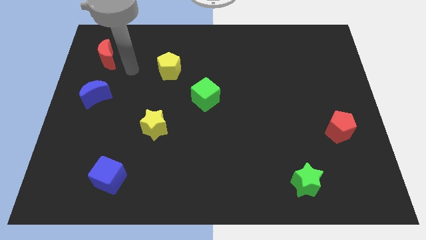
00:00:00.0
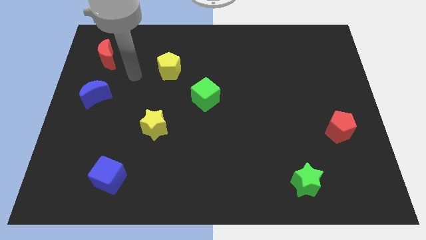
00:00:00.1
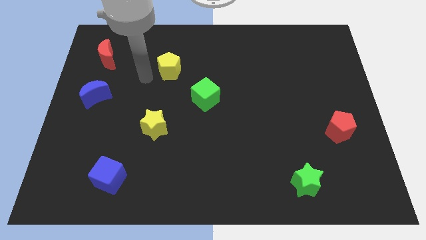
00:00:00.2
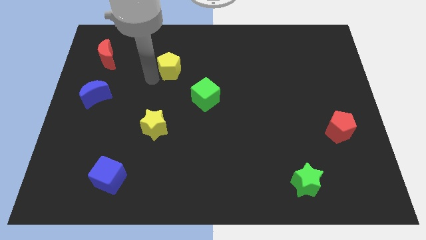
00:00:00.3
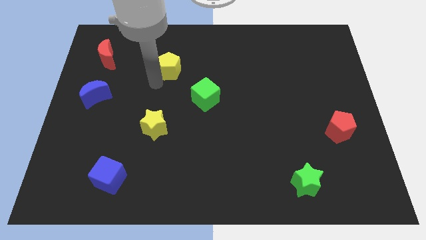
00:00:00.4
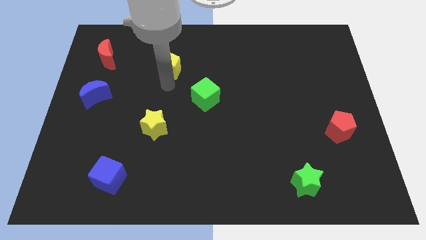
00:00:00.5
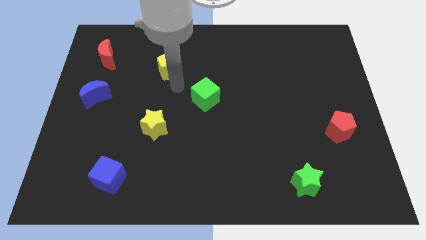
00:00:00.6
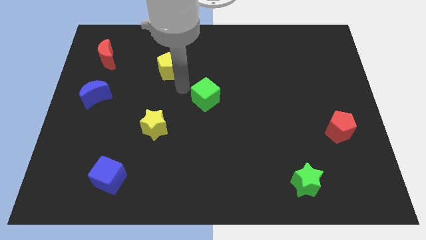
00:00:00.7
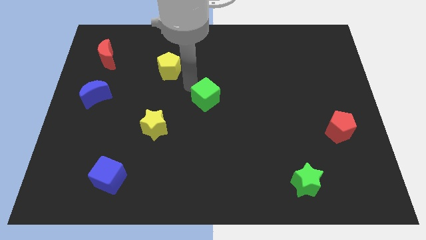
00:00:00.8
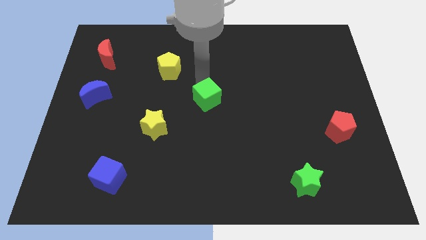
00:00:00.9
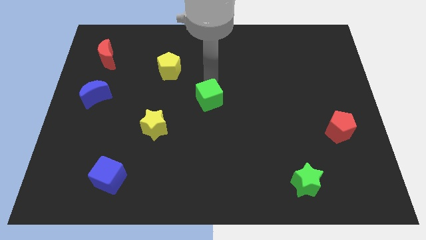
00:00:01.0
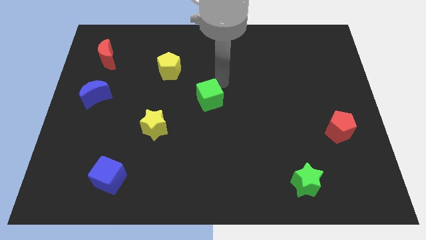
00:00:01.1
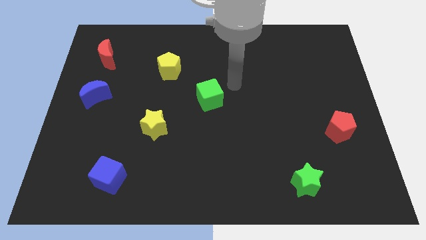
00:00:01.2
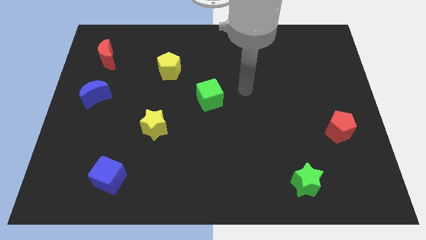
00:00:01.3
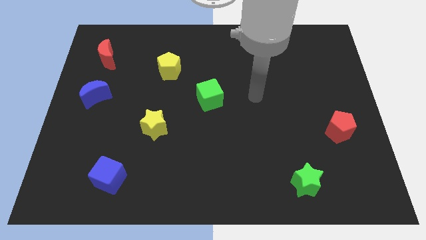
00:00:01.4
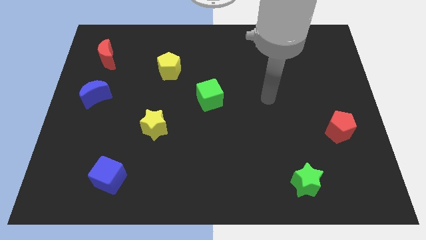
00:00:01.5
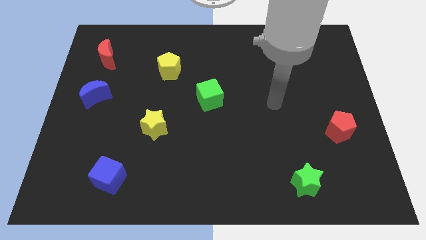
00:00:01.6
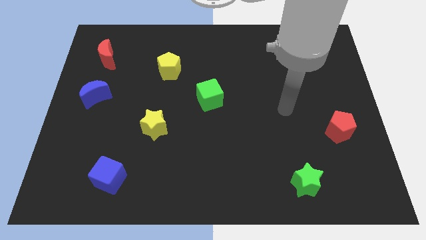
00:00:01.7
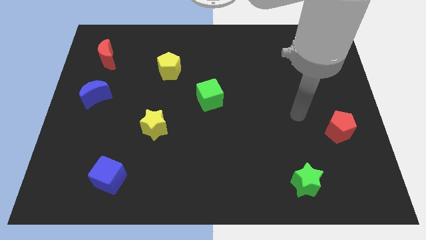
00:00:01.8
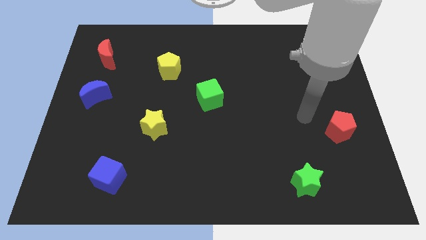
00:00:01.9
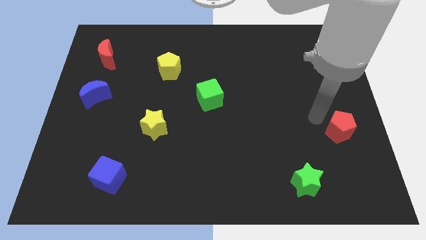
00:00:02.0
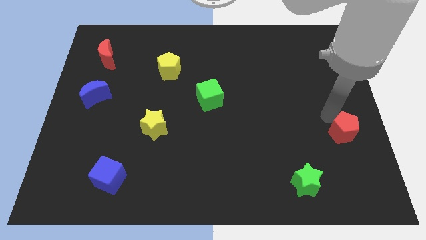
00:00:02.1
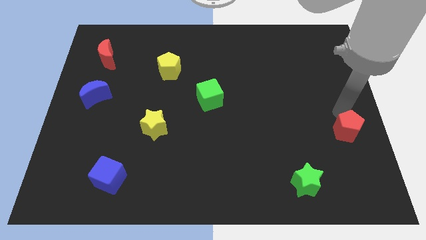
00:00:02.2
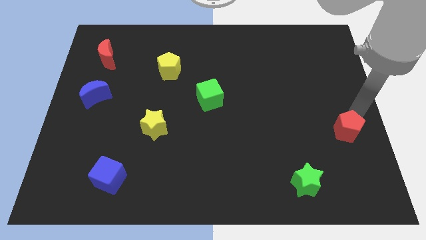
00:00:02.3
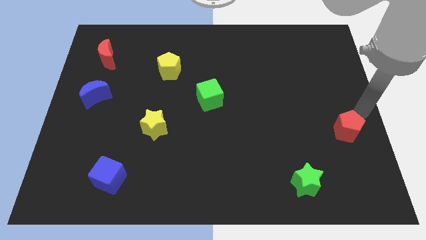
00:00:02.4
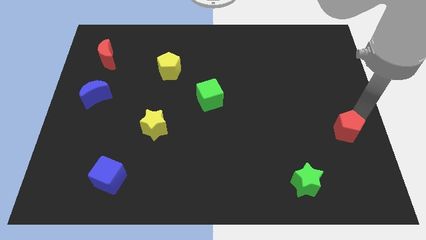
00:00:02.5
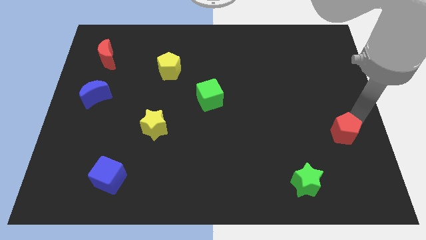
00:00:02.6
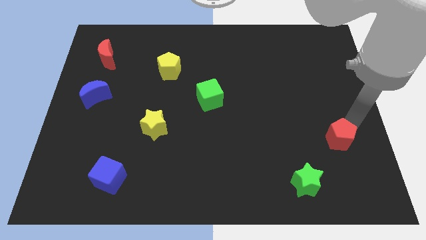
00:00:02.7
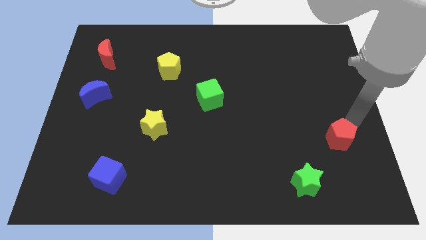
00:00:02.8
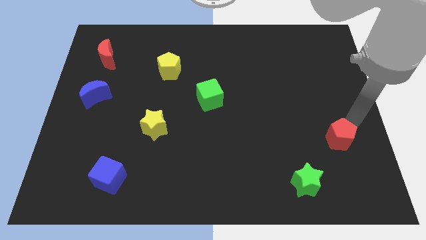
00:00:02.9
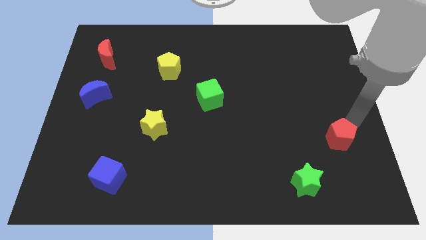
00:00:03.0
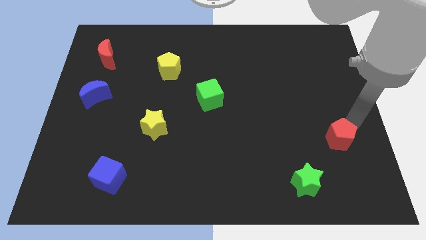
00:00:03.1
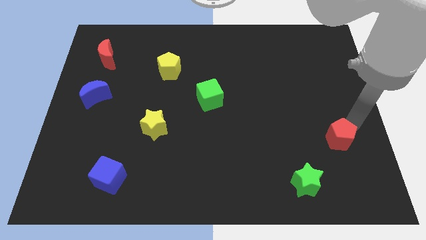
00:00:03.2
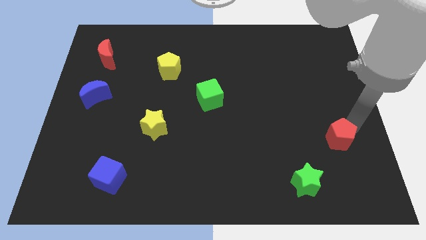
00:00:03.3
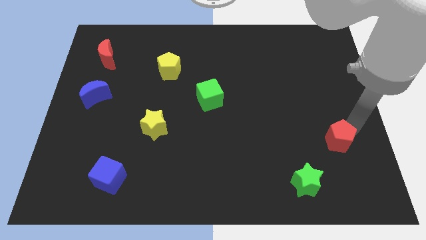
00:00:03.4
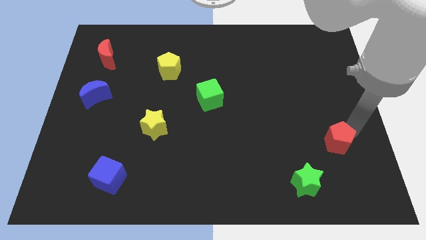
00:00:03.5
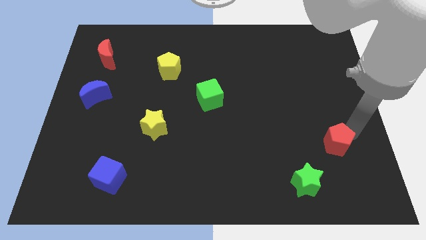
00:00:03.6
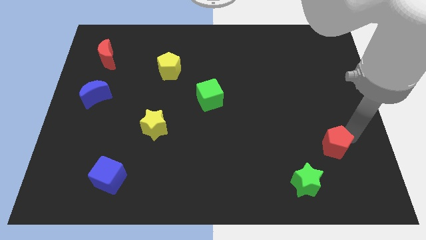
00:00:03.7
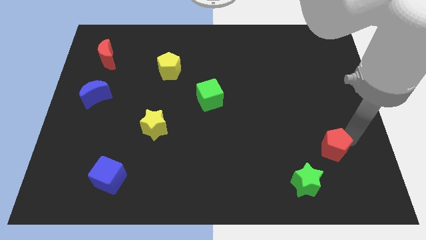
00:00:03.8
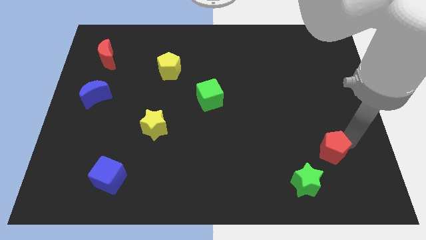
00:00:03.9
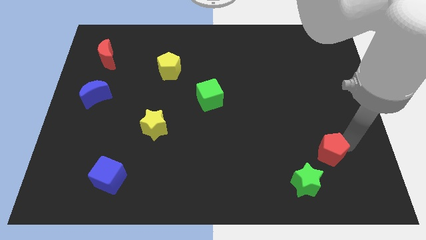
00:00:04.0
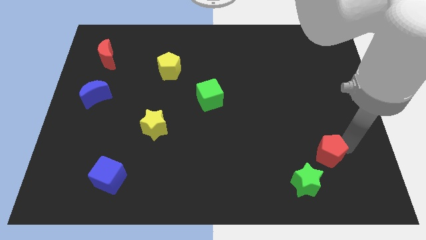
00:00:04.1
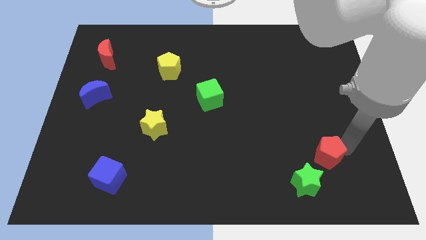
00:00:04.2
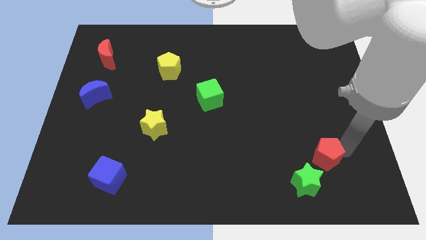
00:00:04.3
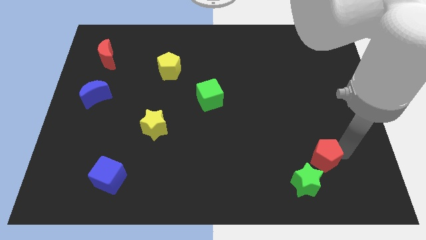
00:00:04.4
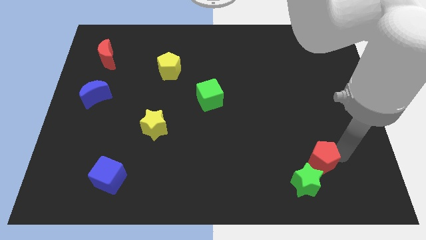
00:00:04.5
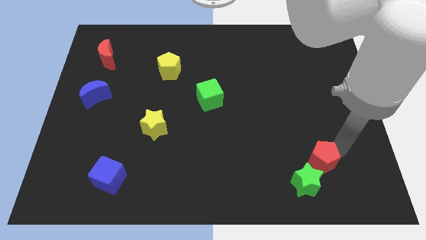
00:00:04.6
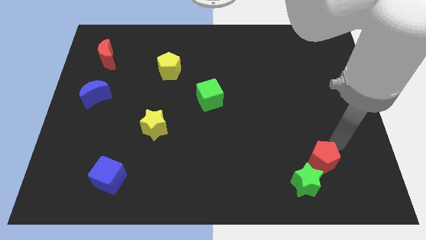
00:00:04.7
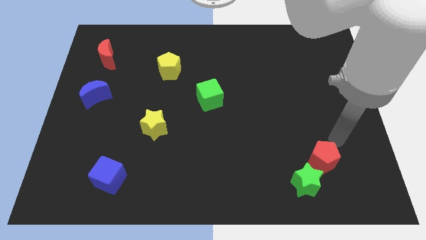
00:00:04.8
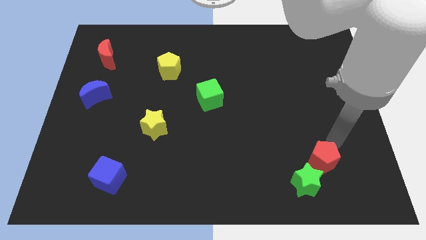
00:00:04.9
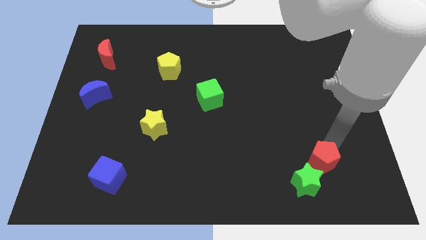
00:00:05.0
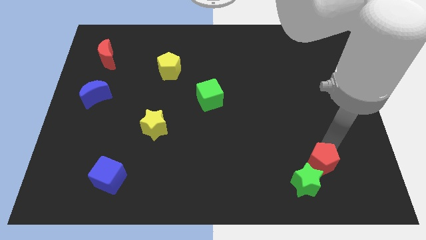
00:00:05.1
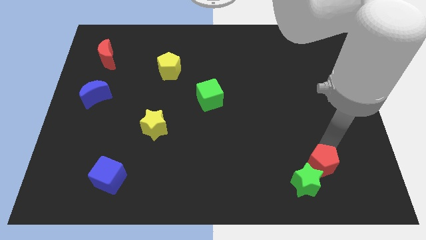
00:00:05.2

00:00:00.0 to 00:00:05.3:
slide the red pentagon to the green star

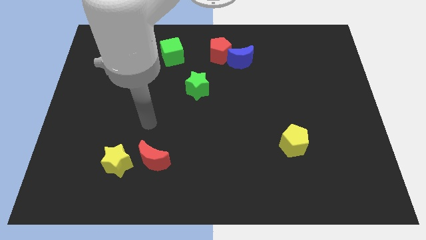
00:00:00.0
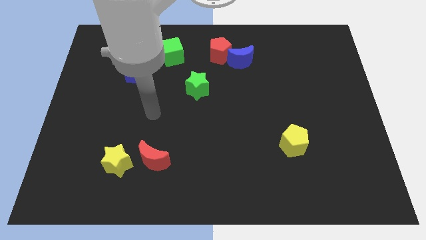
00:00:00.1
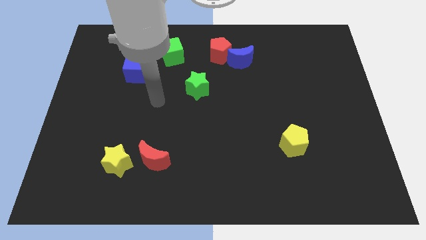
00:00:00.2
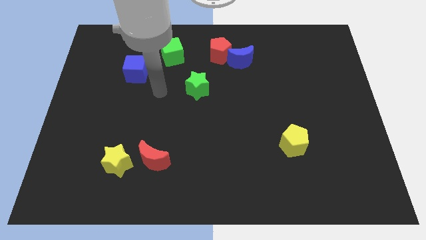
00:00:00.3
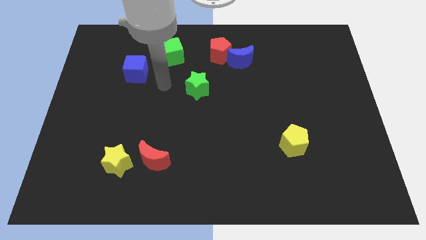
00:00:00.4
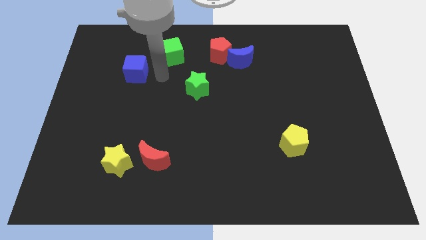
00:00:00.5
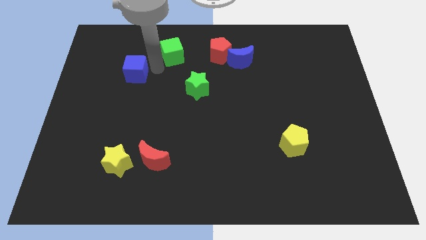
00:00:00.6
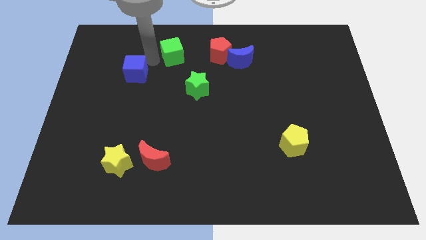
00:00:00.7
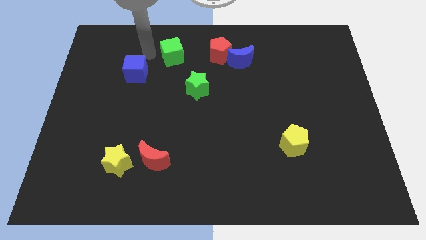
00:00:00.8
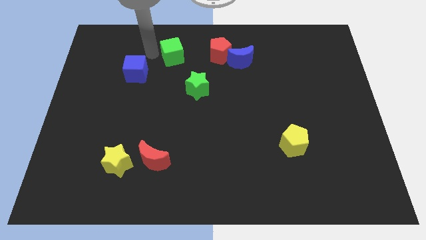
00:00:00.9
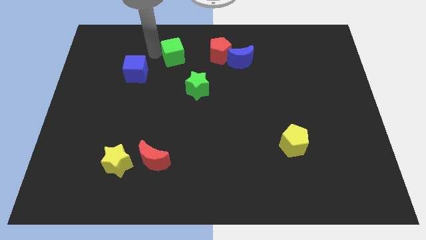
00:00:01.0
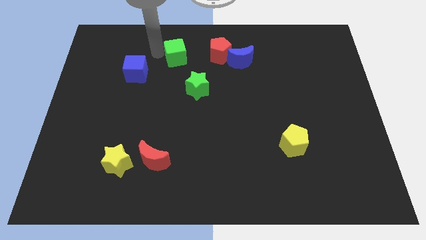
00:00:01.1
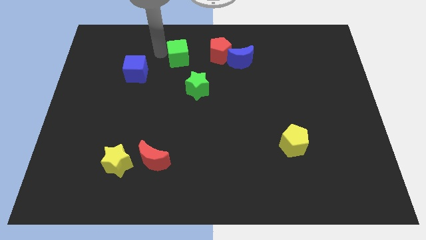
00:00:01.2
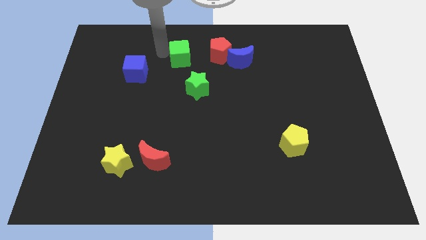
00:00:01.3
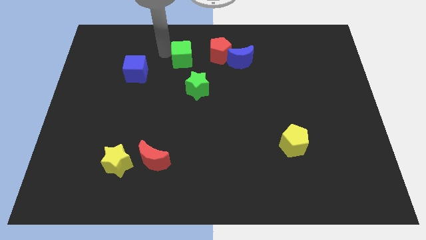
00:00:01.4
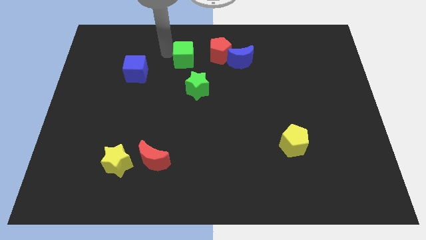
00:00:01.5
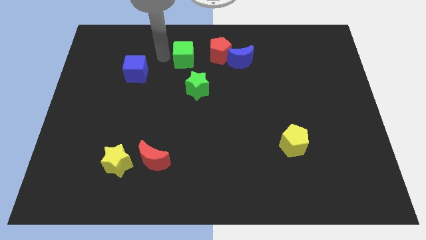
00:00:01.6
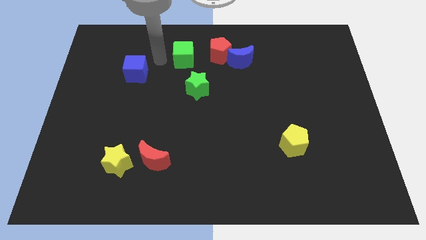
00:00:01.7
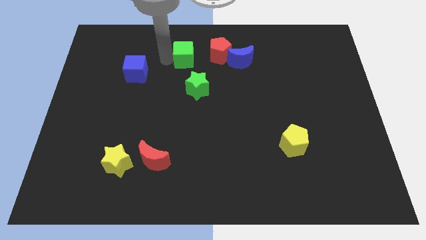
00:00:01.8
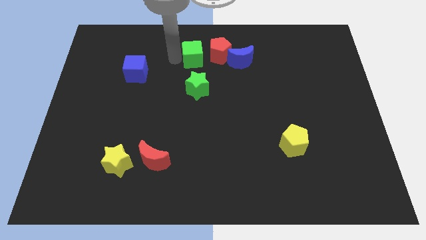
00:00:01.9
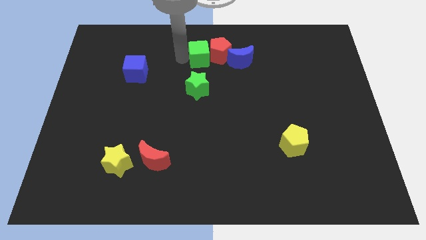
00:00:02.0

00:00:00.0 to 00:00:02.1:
put the green cube next to the red pentagon

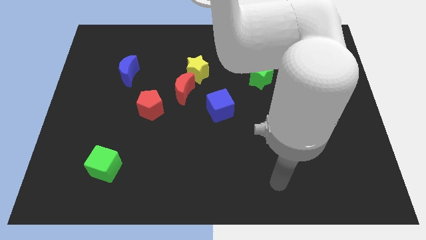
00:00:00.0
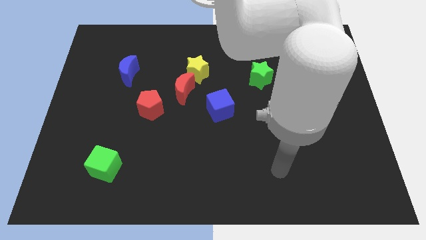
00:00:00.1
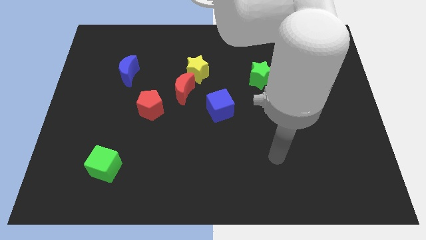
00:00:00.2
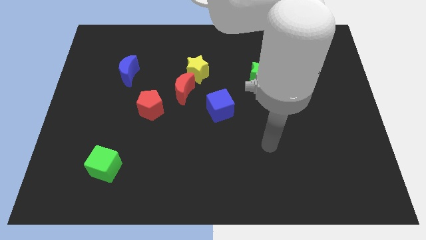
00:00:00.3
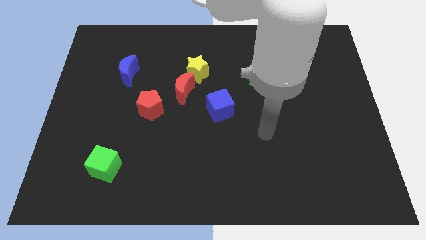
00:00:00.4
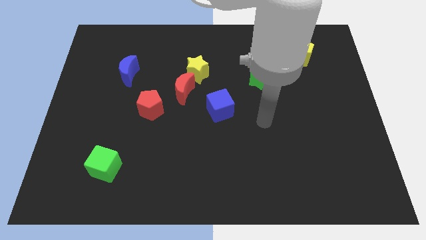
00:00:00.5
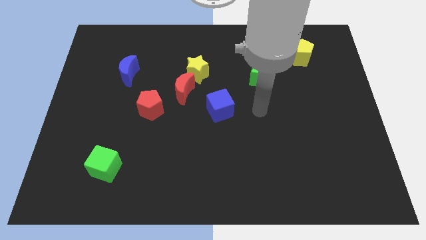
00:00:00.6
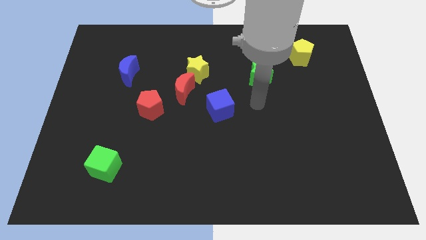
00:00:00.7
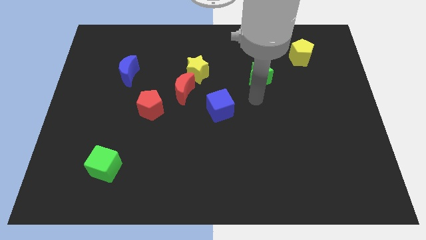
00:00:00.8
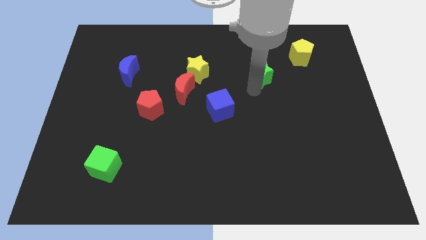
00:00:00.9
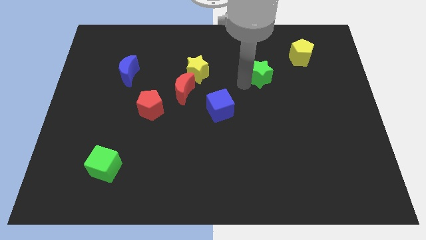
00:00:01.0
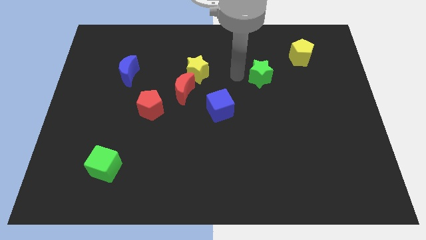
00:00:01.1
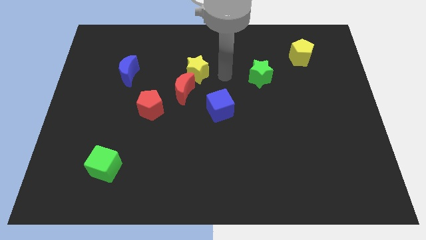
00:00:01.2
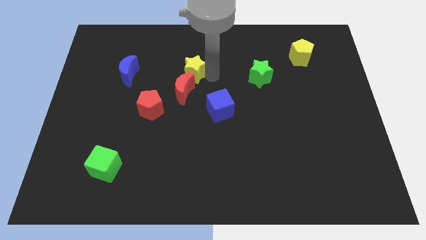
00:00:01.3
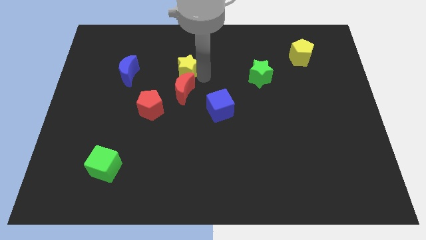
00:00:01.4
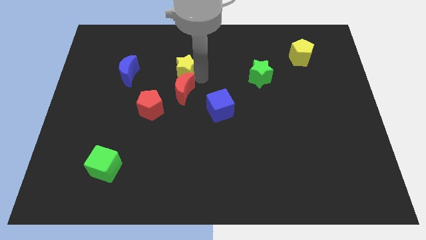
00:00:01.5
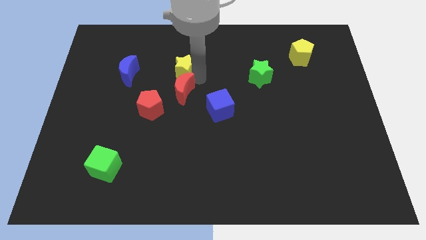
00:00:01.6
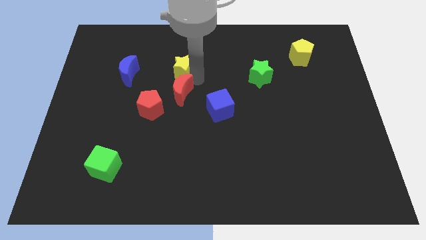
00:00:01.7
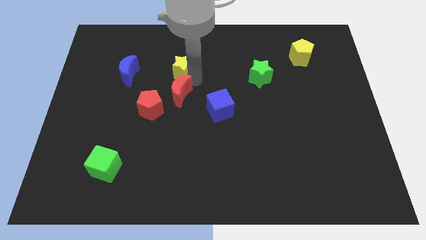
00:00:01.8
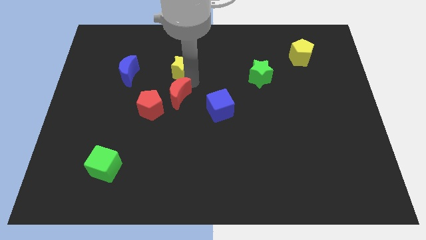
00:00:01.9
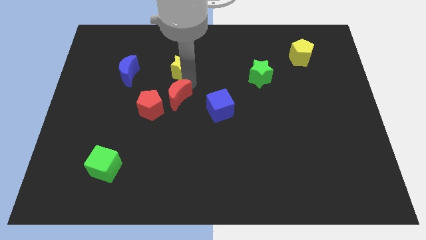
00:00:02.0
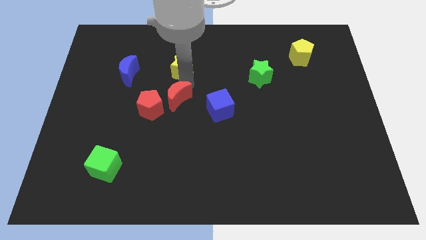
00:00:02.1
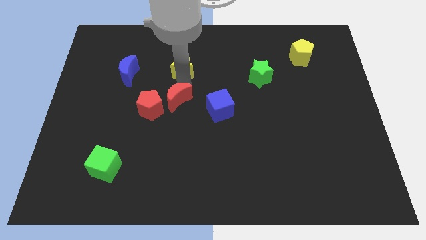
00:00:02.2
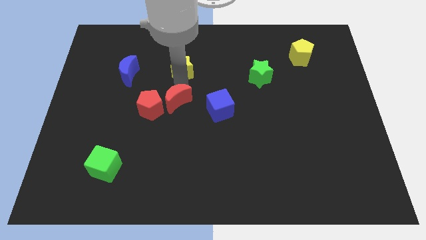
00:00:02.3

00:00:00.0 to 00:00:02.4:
move the red moon close to the red pentagon
